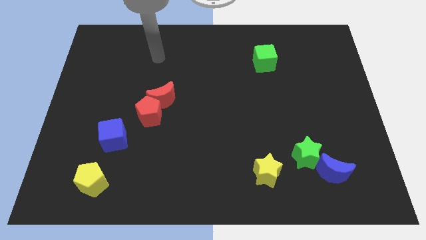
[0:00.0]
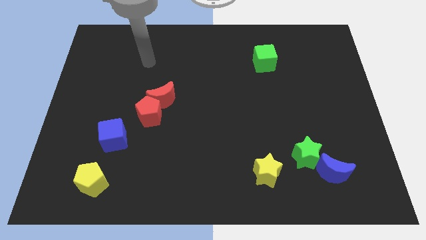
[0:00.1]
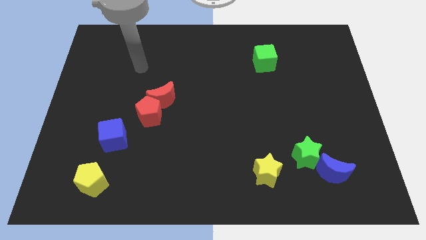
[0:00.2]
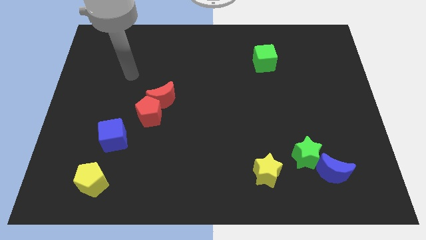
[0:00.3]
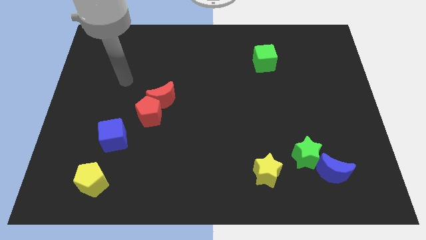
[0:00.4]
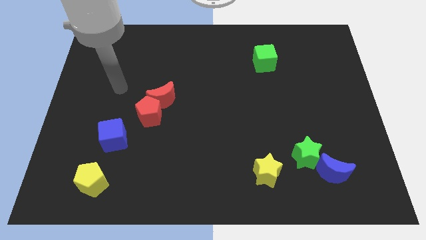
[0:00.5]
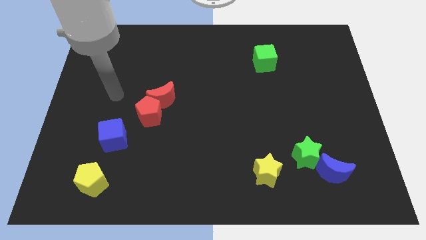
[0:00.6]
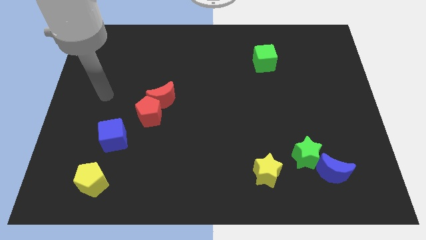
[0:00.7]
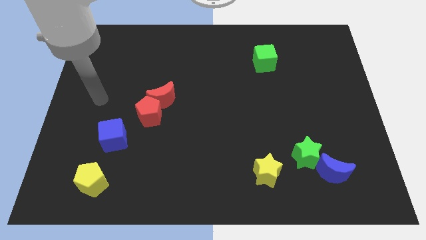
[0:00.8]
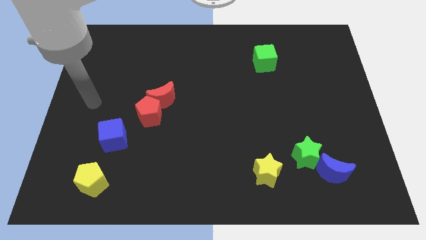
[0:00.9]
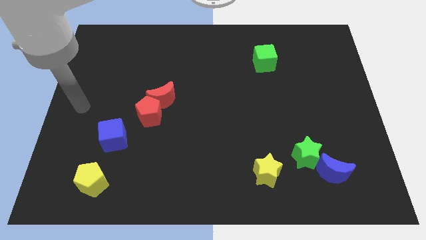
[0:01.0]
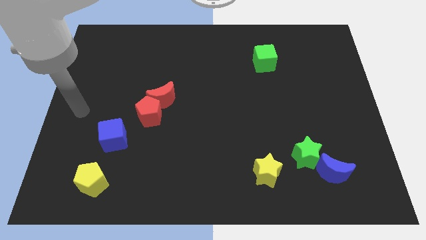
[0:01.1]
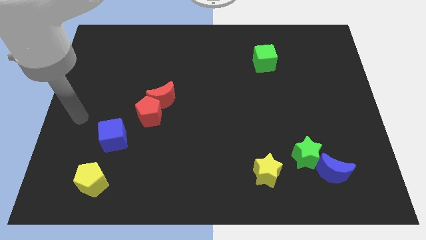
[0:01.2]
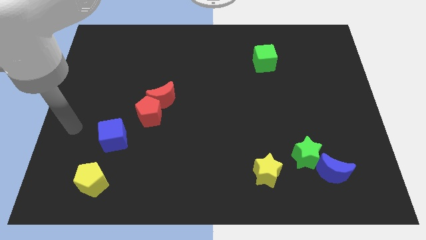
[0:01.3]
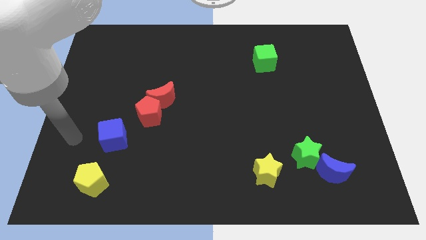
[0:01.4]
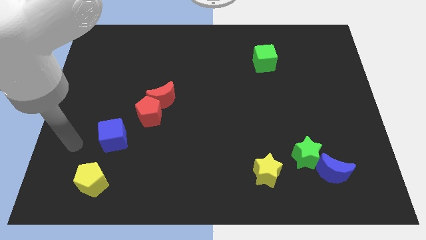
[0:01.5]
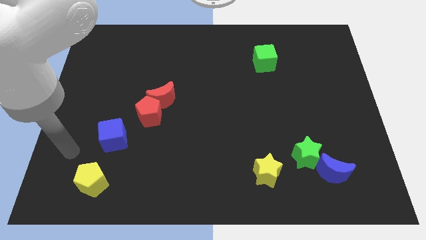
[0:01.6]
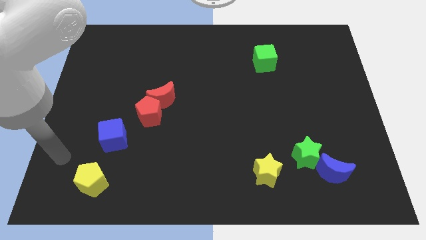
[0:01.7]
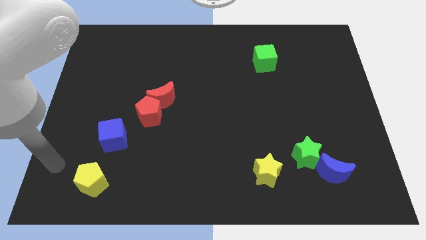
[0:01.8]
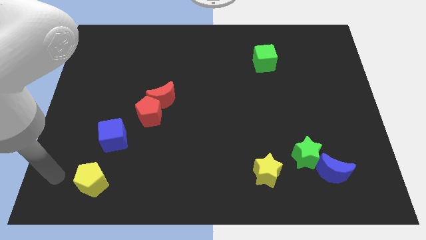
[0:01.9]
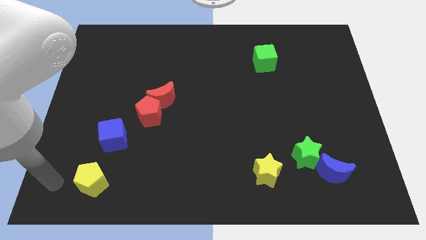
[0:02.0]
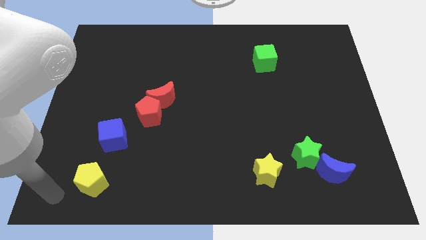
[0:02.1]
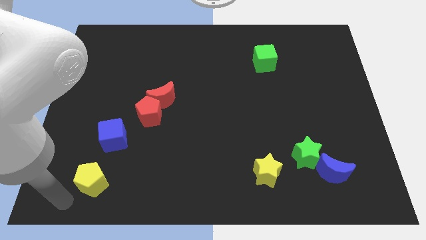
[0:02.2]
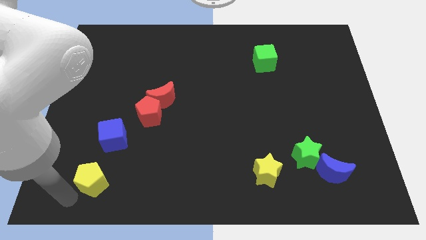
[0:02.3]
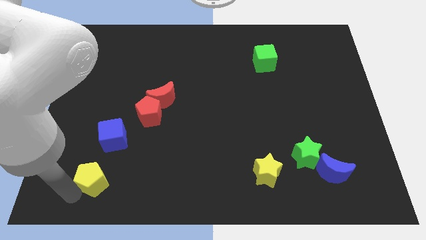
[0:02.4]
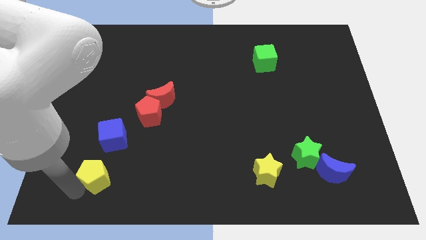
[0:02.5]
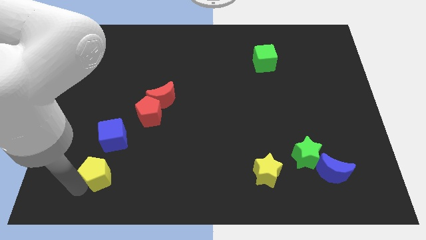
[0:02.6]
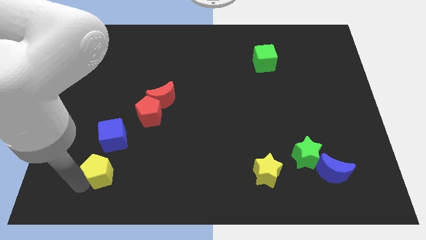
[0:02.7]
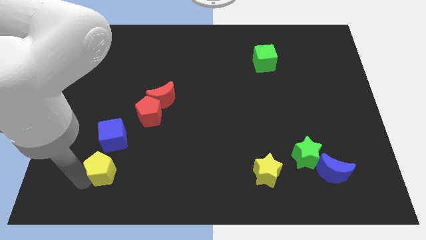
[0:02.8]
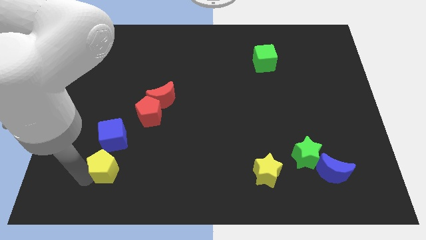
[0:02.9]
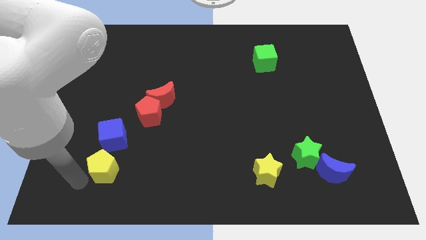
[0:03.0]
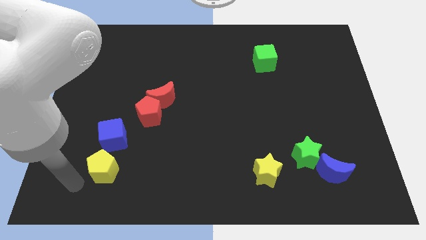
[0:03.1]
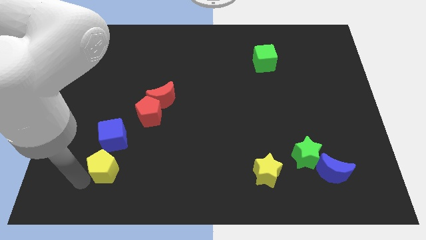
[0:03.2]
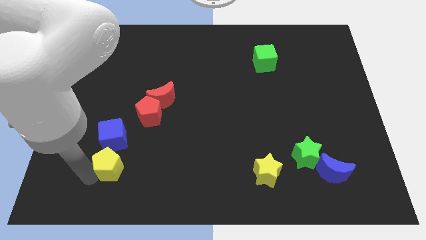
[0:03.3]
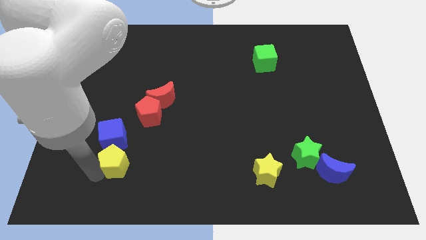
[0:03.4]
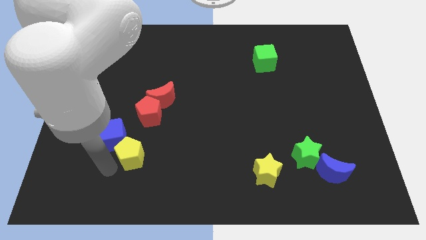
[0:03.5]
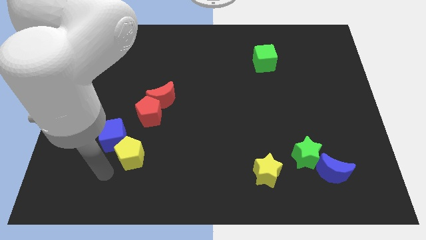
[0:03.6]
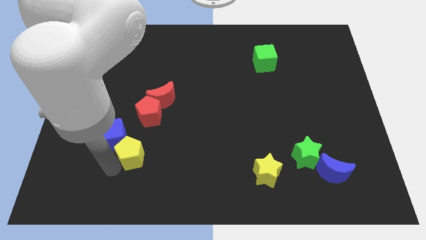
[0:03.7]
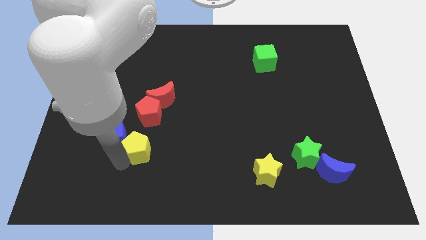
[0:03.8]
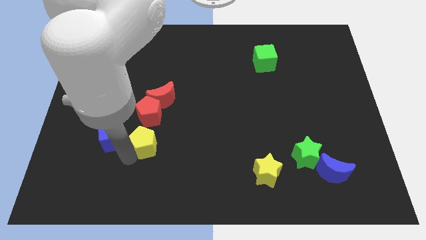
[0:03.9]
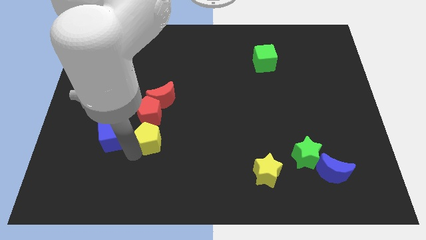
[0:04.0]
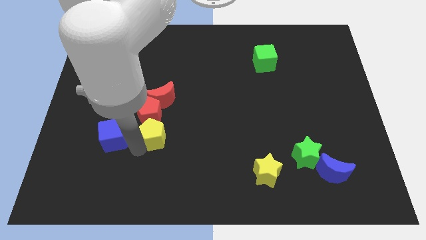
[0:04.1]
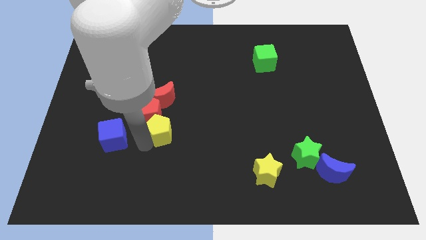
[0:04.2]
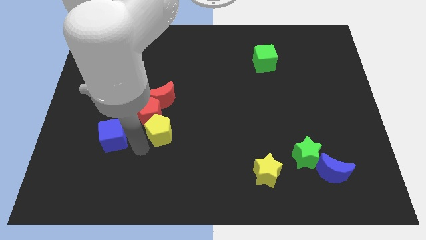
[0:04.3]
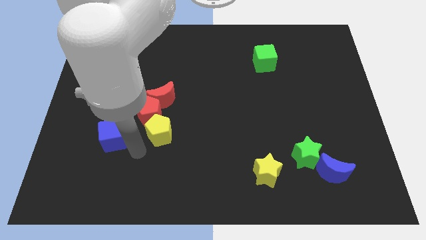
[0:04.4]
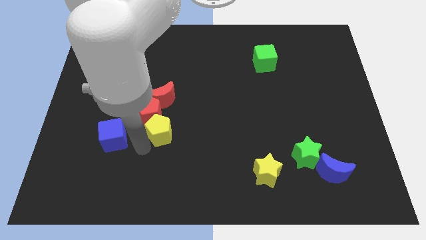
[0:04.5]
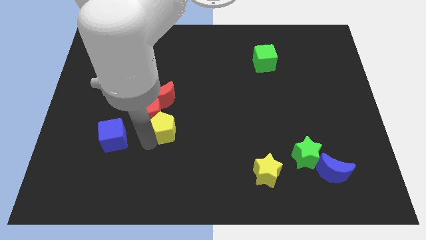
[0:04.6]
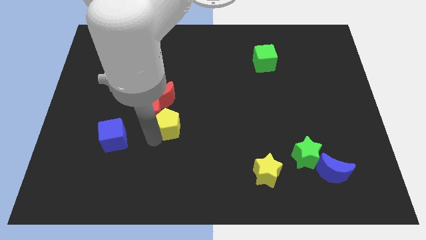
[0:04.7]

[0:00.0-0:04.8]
slide the yellow pentagon diagonally up and to the right

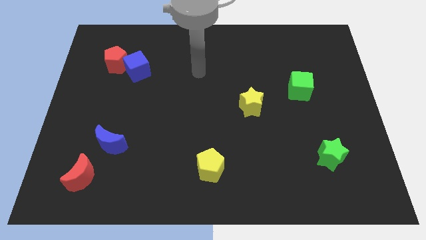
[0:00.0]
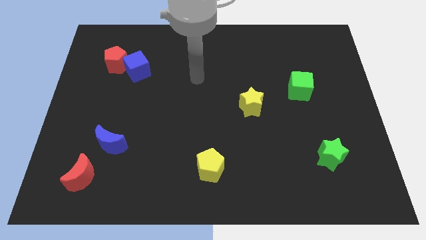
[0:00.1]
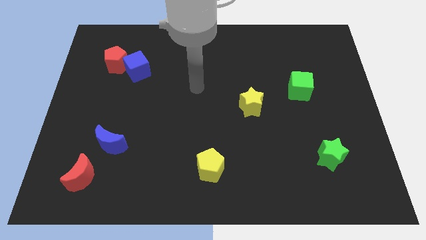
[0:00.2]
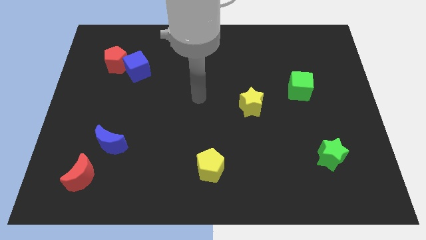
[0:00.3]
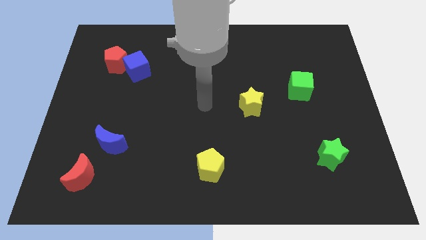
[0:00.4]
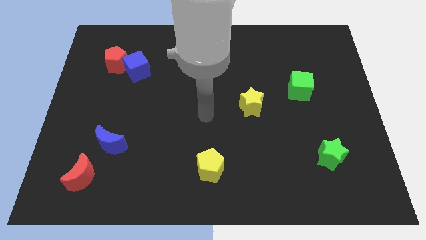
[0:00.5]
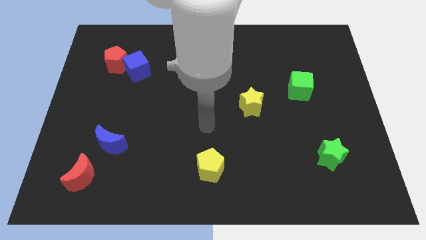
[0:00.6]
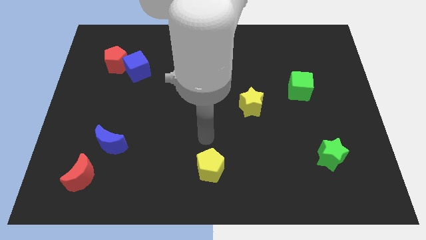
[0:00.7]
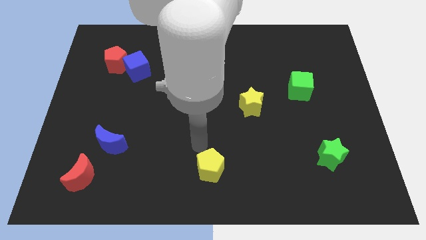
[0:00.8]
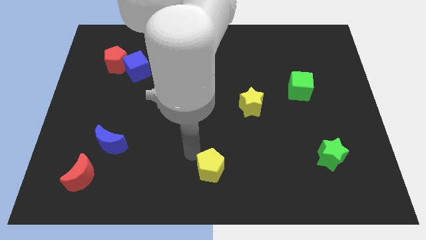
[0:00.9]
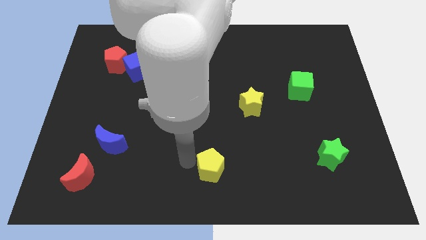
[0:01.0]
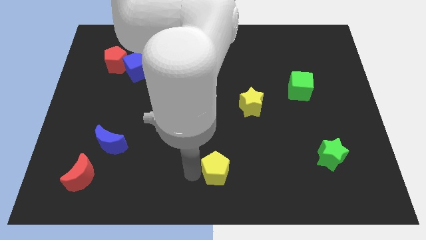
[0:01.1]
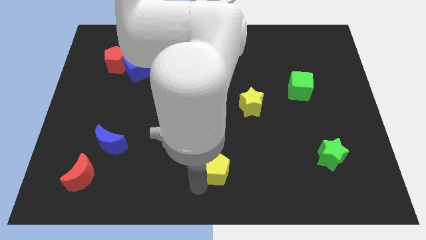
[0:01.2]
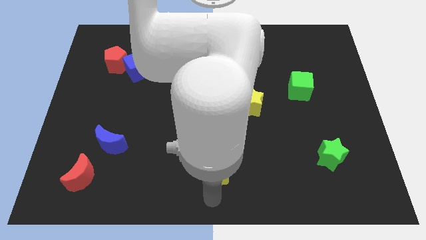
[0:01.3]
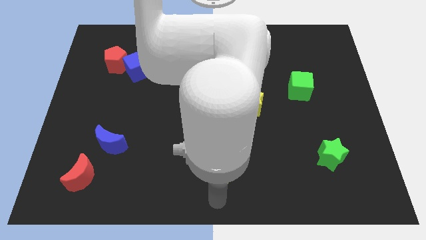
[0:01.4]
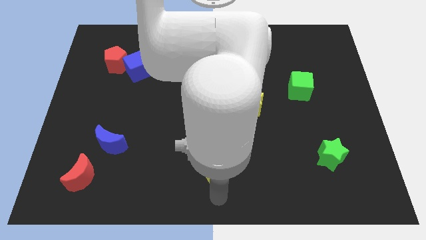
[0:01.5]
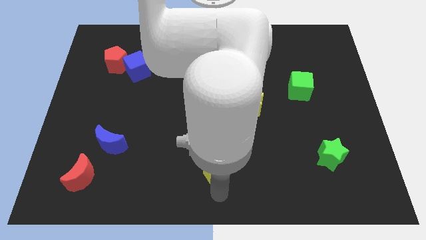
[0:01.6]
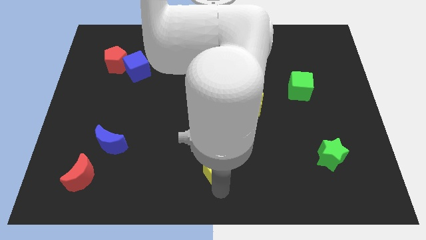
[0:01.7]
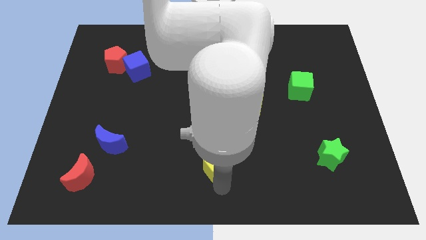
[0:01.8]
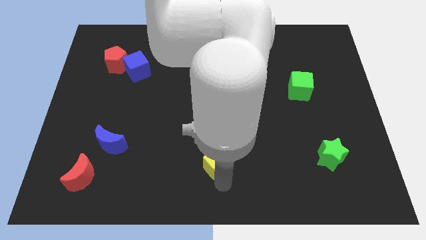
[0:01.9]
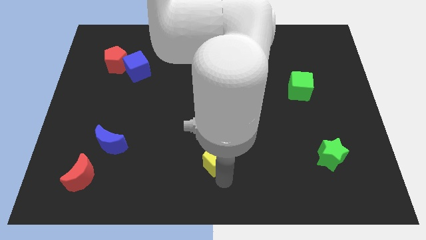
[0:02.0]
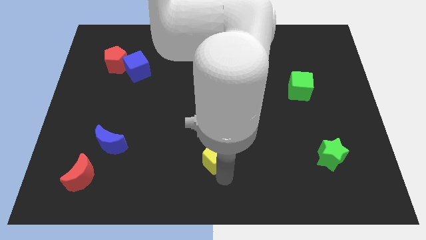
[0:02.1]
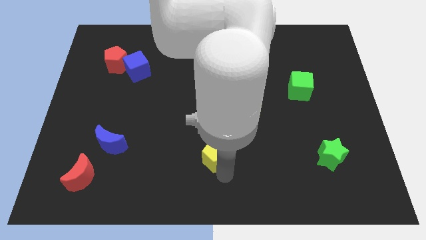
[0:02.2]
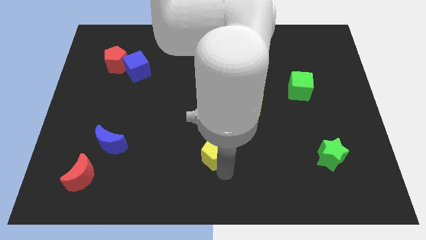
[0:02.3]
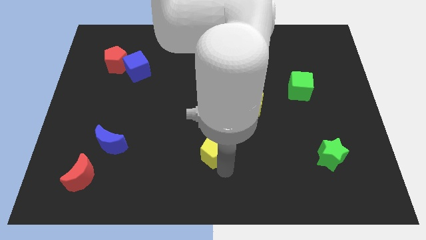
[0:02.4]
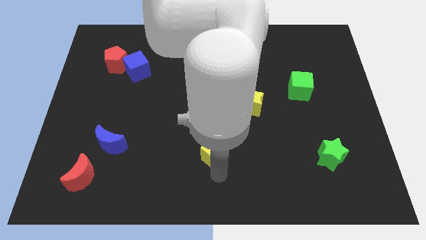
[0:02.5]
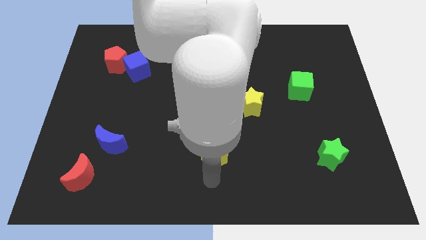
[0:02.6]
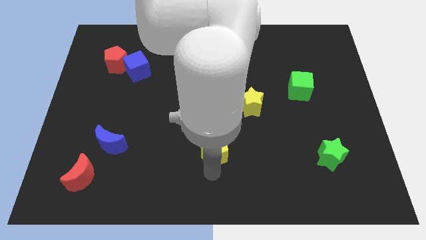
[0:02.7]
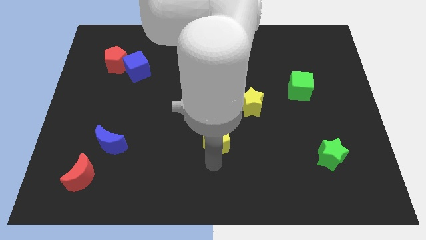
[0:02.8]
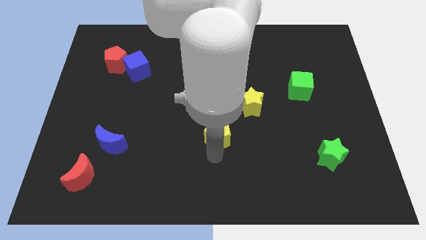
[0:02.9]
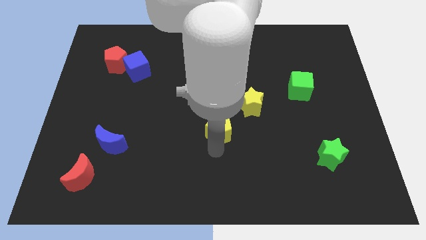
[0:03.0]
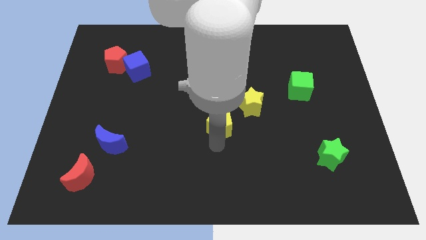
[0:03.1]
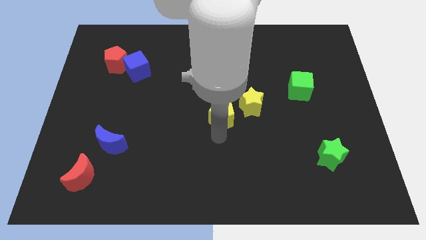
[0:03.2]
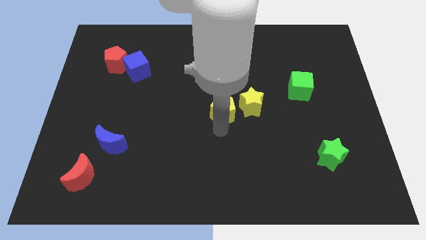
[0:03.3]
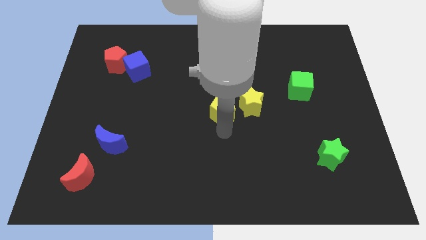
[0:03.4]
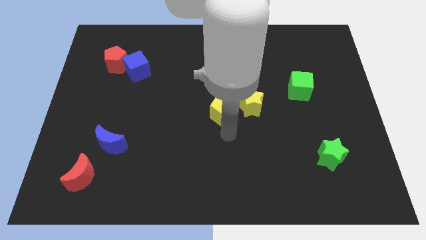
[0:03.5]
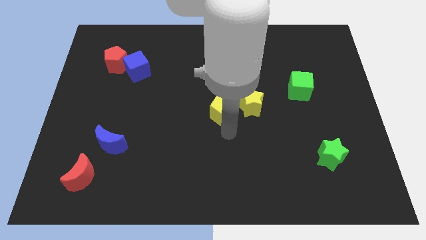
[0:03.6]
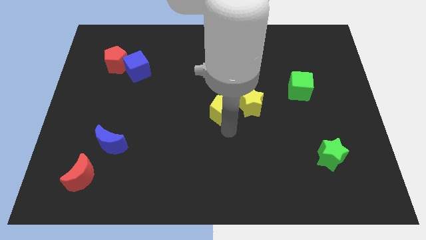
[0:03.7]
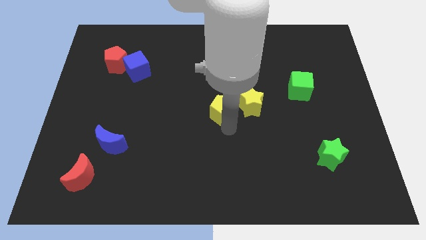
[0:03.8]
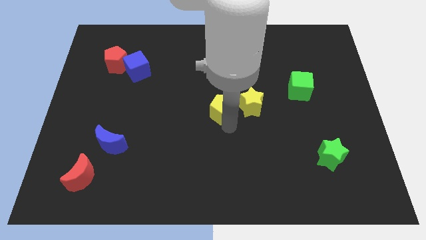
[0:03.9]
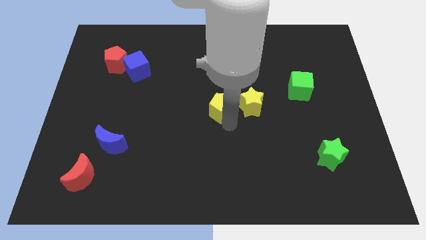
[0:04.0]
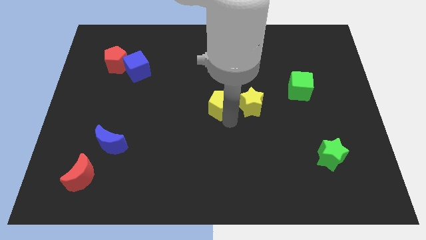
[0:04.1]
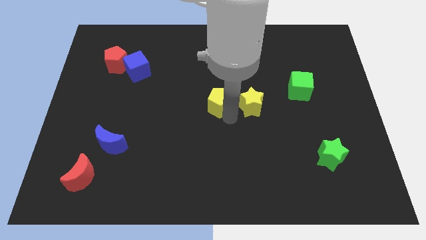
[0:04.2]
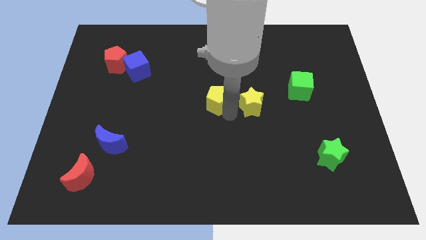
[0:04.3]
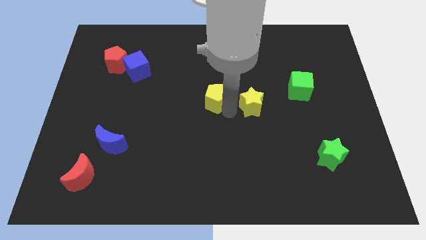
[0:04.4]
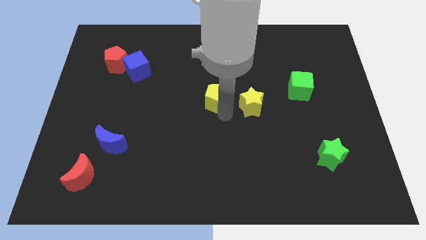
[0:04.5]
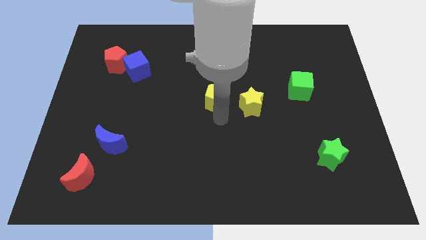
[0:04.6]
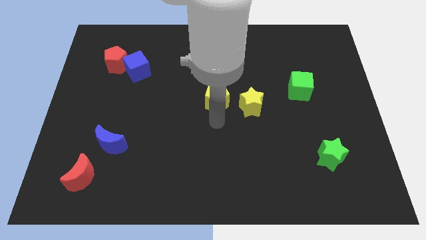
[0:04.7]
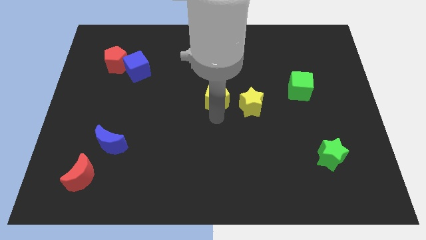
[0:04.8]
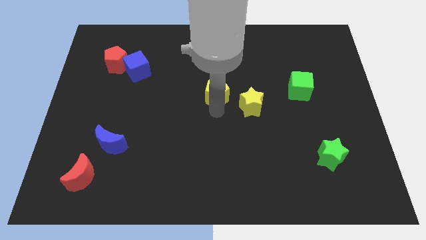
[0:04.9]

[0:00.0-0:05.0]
push the yellow pentagon up
